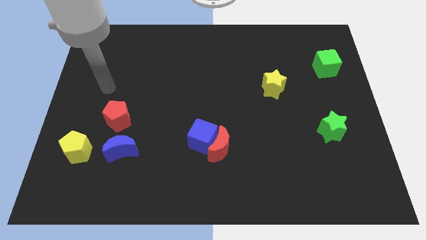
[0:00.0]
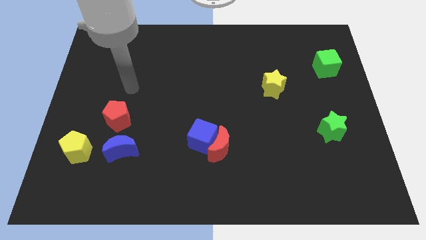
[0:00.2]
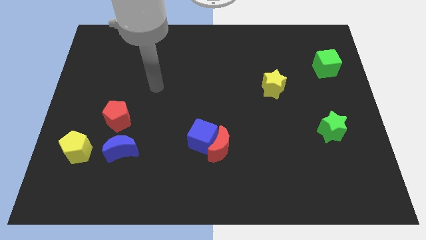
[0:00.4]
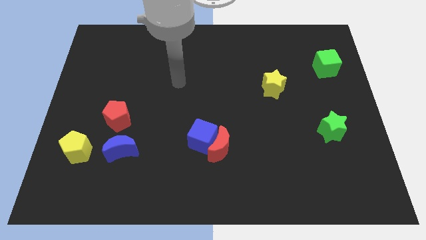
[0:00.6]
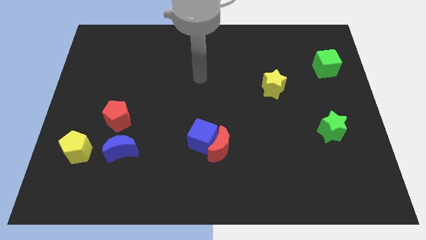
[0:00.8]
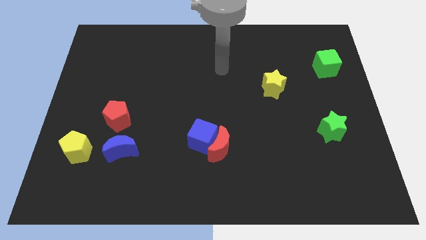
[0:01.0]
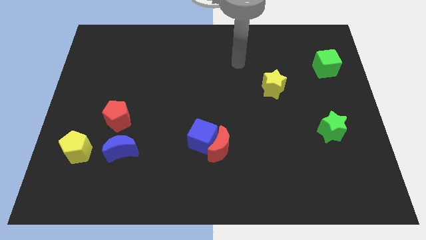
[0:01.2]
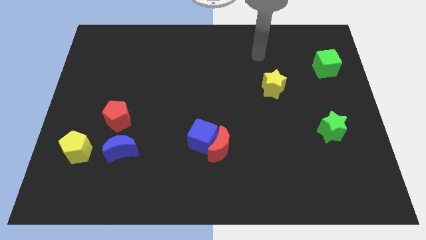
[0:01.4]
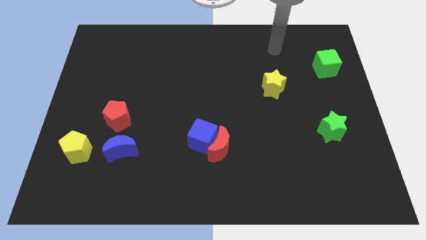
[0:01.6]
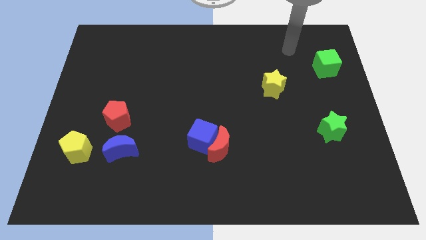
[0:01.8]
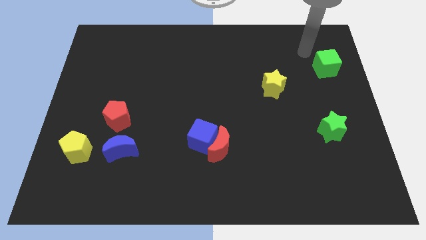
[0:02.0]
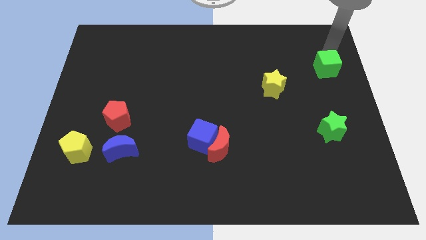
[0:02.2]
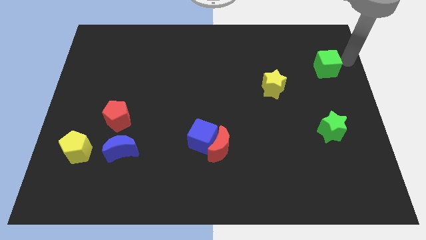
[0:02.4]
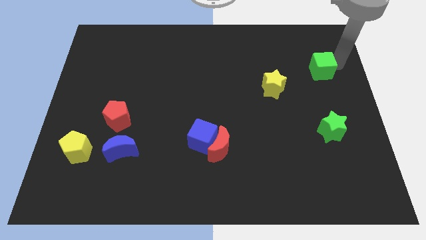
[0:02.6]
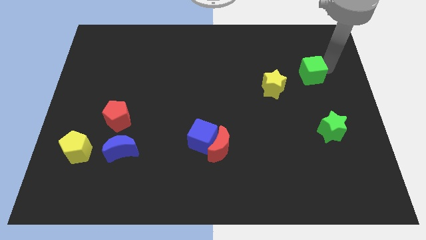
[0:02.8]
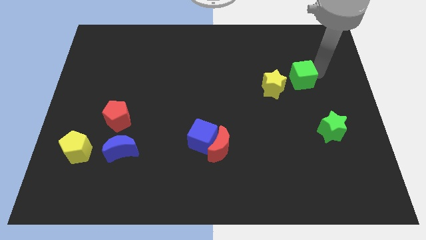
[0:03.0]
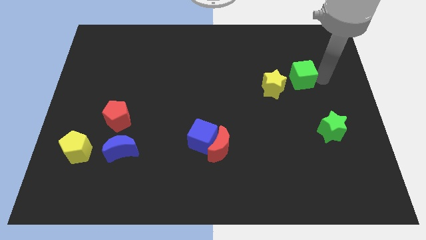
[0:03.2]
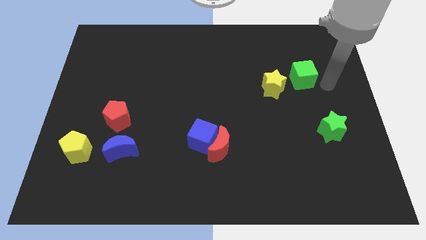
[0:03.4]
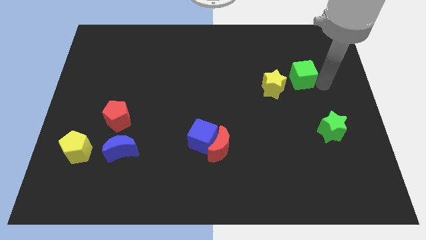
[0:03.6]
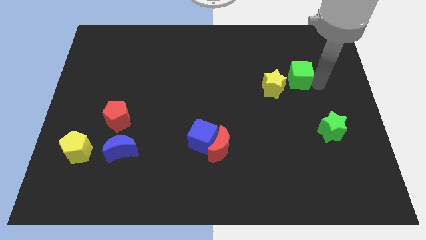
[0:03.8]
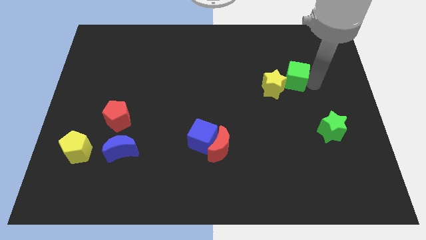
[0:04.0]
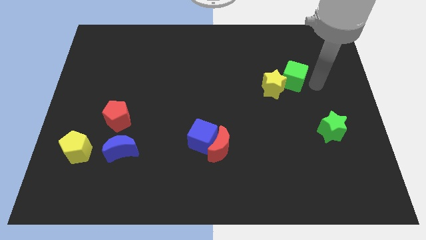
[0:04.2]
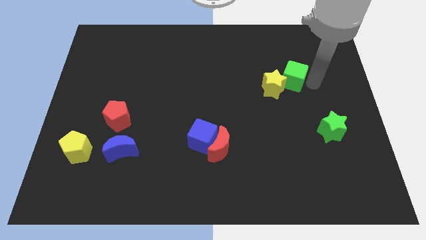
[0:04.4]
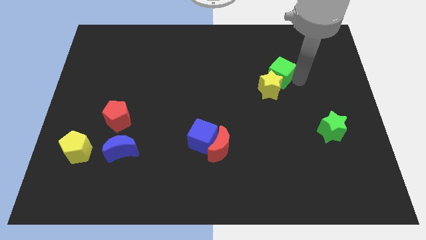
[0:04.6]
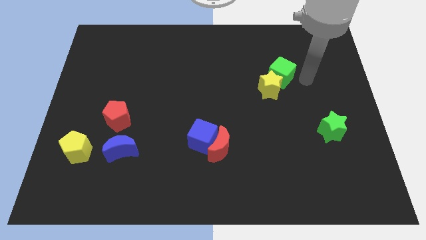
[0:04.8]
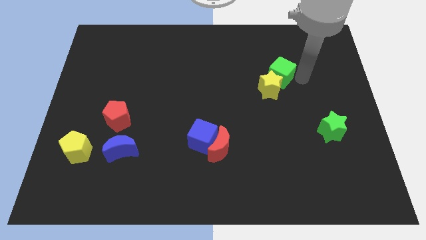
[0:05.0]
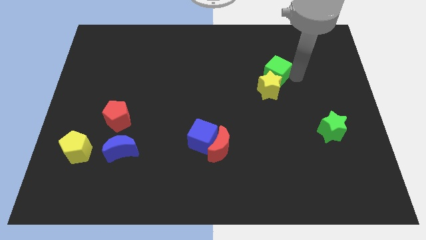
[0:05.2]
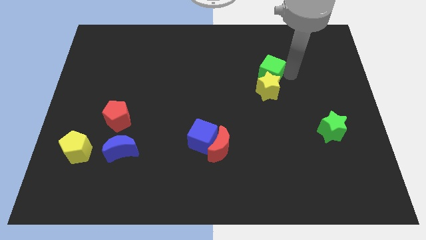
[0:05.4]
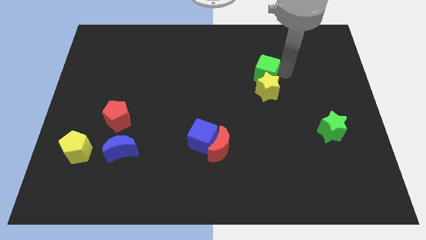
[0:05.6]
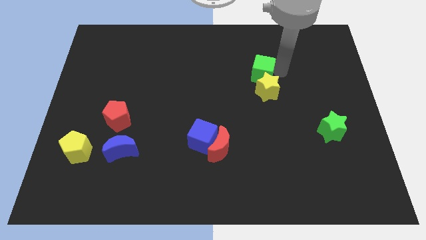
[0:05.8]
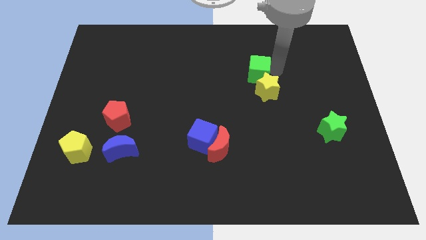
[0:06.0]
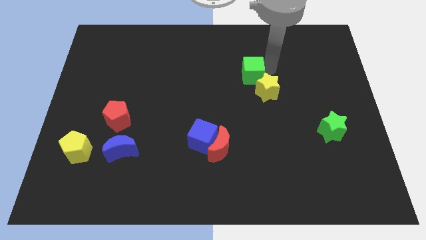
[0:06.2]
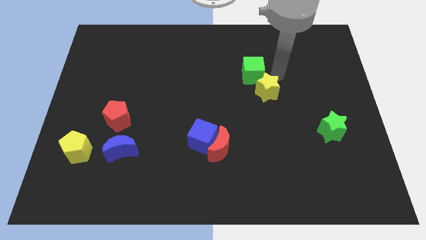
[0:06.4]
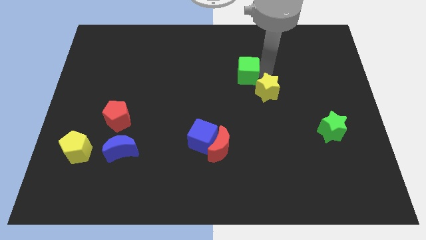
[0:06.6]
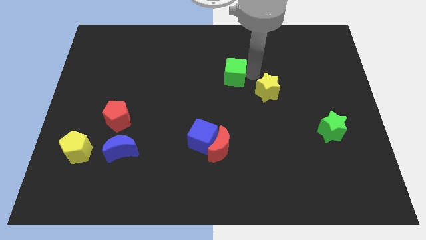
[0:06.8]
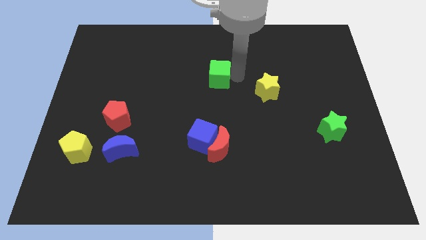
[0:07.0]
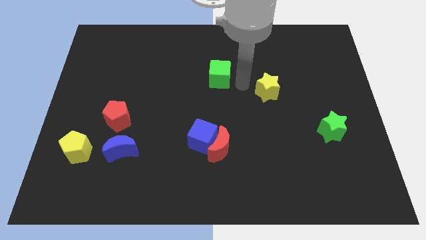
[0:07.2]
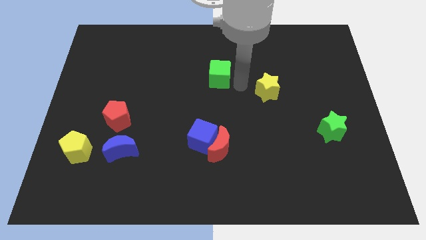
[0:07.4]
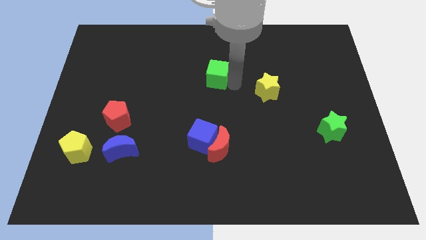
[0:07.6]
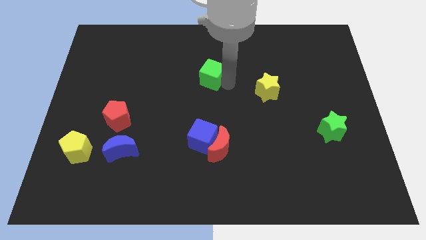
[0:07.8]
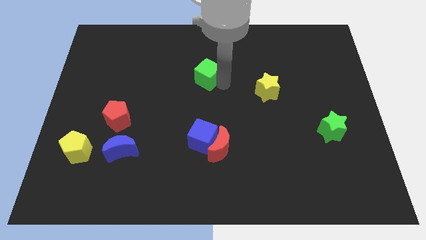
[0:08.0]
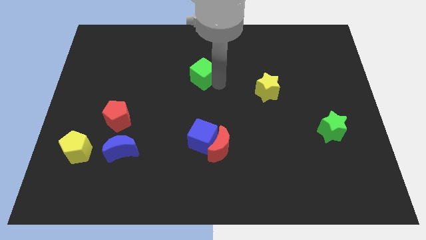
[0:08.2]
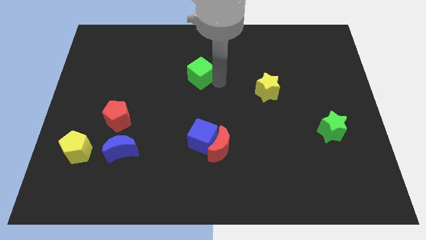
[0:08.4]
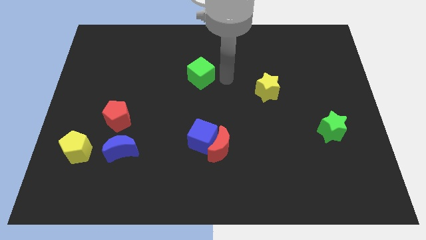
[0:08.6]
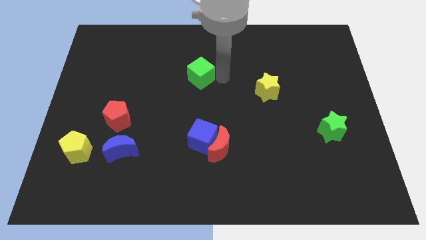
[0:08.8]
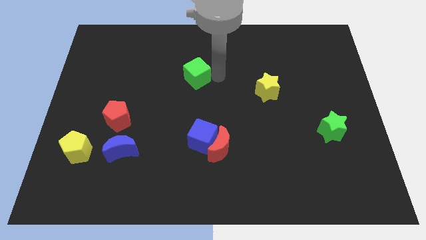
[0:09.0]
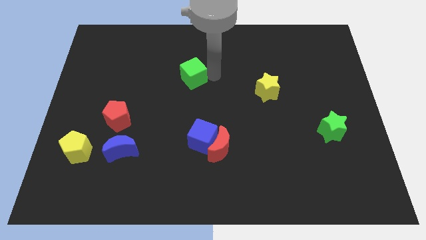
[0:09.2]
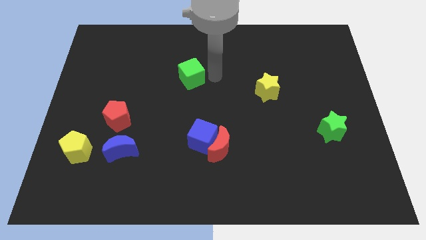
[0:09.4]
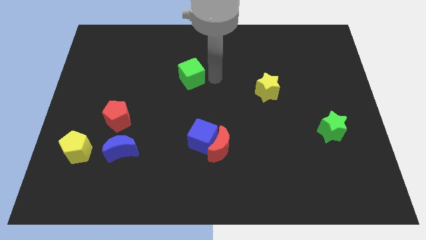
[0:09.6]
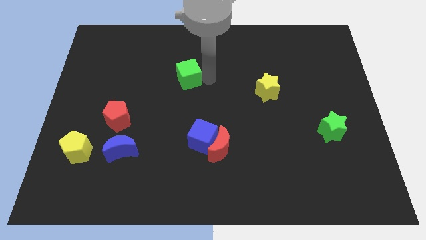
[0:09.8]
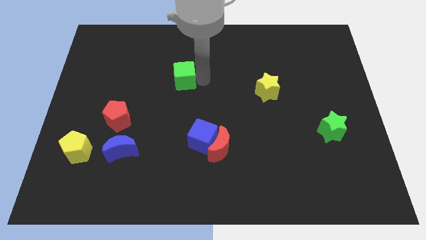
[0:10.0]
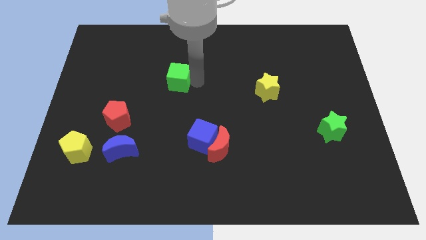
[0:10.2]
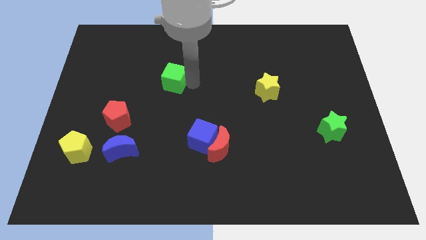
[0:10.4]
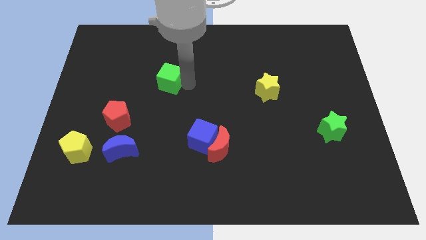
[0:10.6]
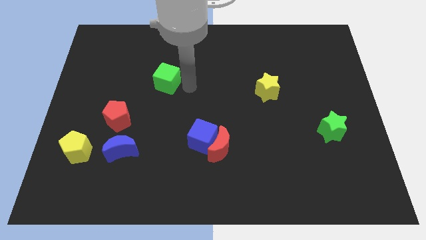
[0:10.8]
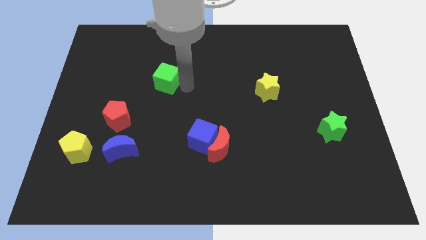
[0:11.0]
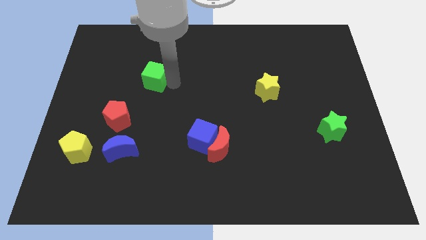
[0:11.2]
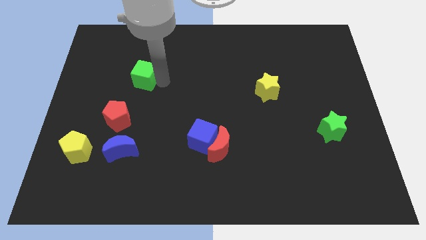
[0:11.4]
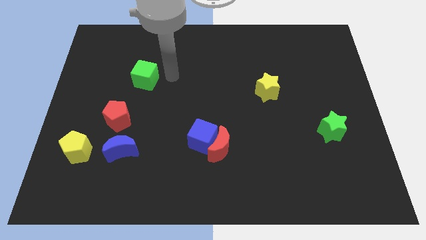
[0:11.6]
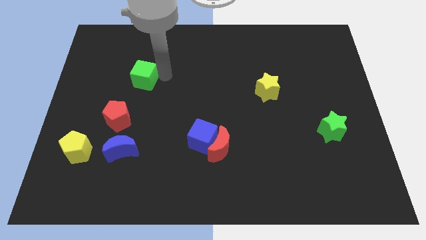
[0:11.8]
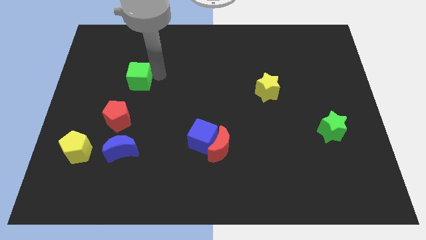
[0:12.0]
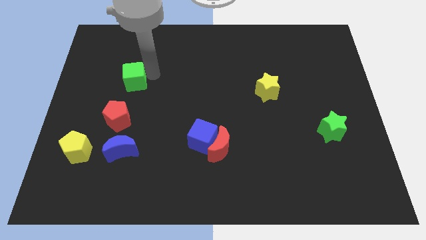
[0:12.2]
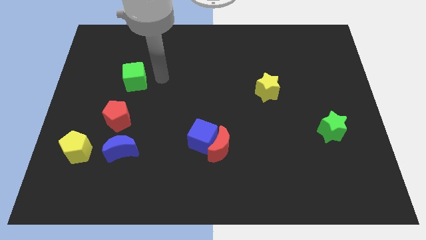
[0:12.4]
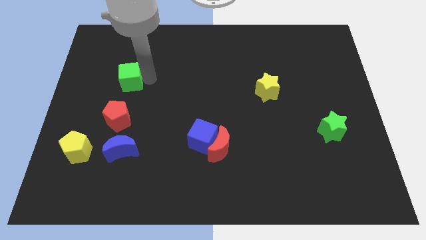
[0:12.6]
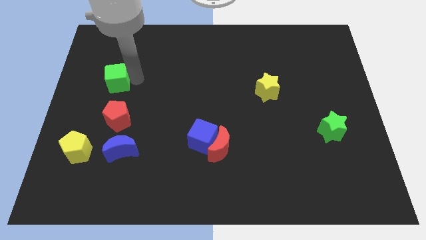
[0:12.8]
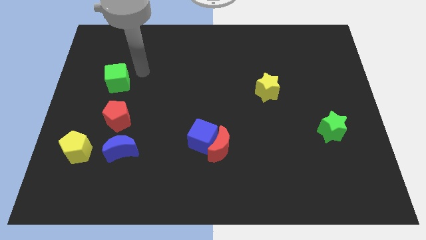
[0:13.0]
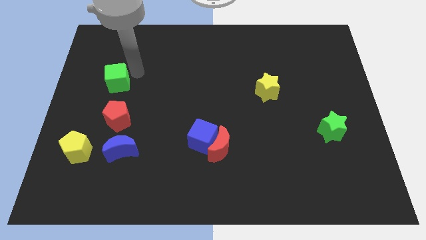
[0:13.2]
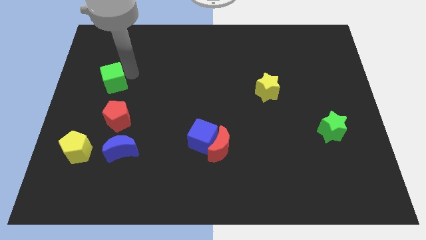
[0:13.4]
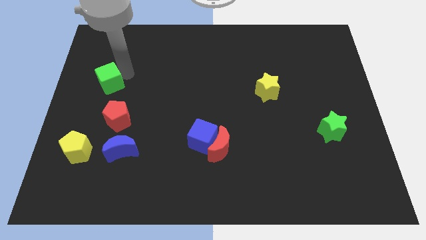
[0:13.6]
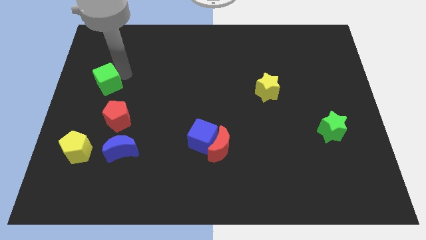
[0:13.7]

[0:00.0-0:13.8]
push the green cube to the left side
